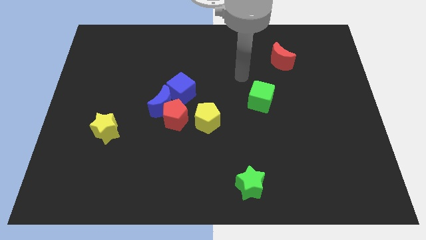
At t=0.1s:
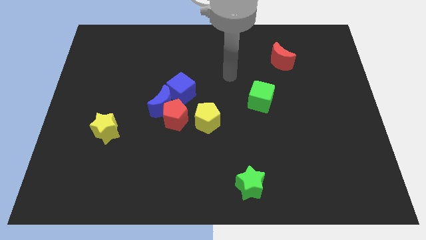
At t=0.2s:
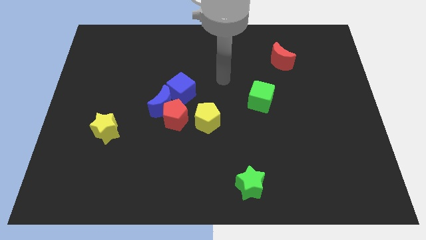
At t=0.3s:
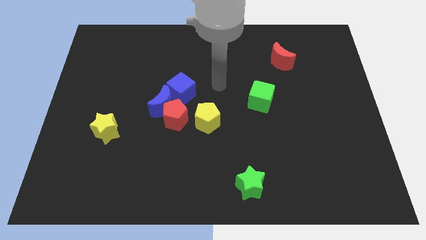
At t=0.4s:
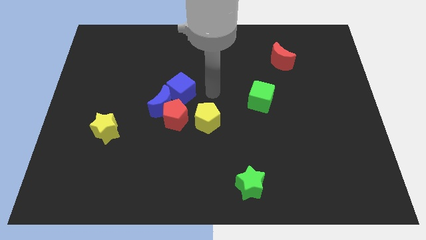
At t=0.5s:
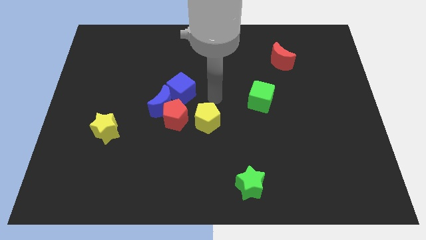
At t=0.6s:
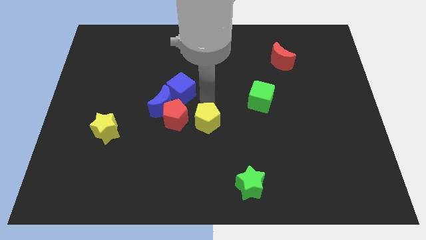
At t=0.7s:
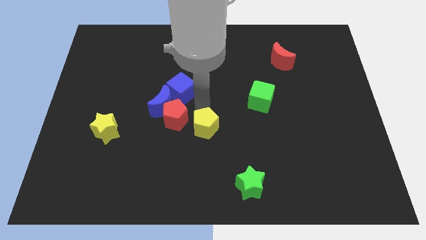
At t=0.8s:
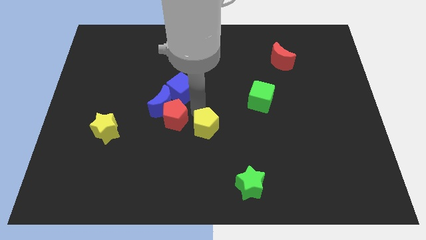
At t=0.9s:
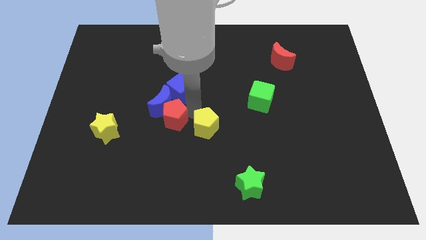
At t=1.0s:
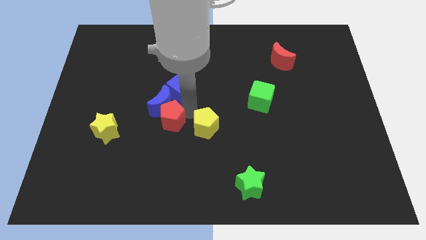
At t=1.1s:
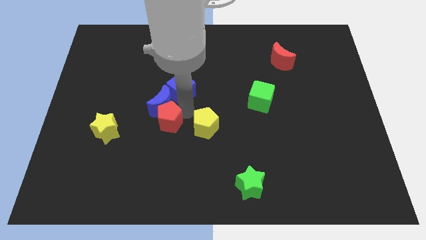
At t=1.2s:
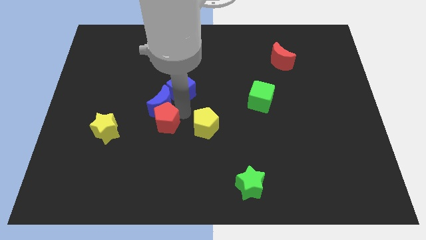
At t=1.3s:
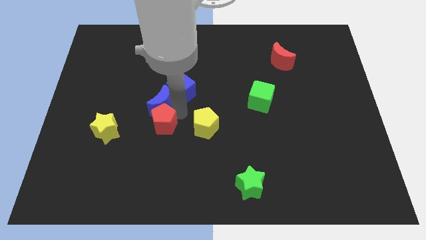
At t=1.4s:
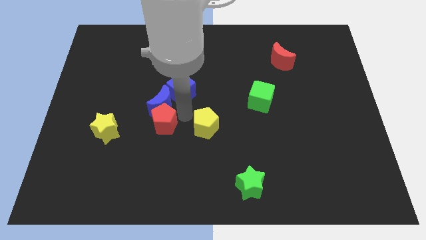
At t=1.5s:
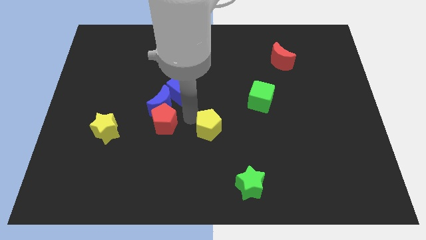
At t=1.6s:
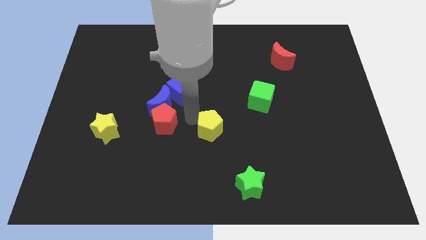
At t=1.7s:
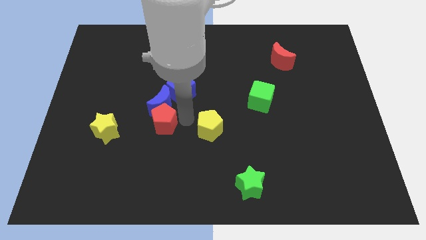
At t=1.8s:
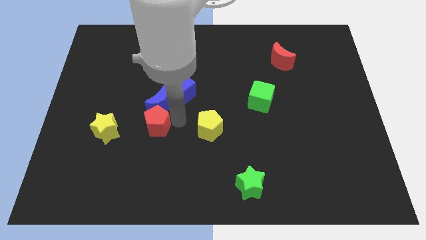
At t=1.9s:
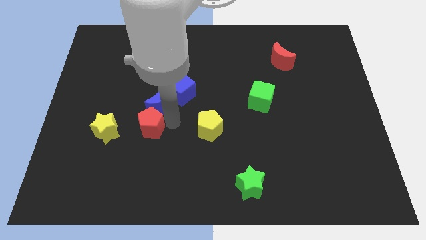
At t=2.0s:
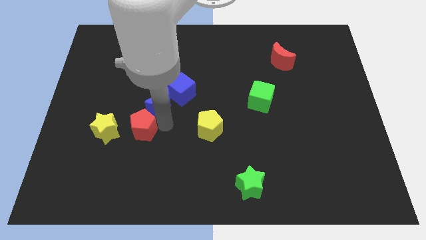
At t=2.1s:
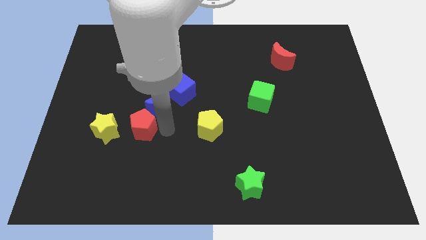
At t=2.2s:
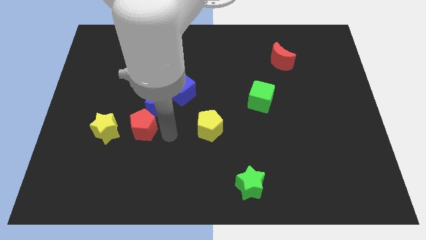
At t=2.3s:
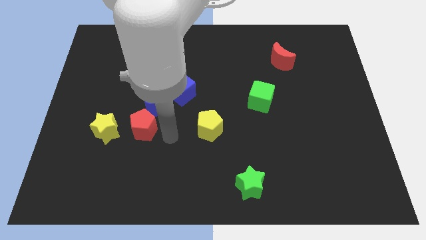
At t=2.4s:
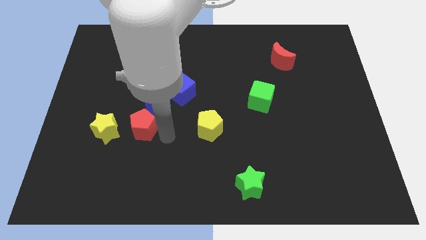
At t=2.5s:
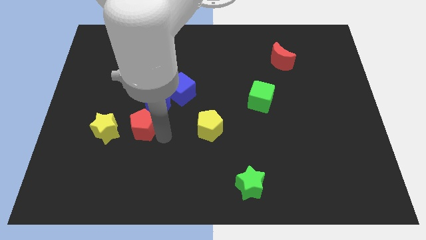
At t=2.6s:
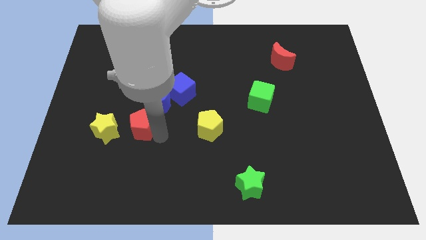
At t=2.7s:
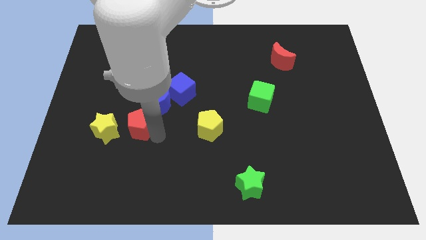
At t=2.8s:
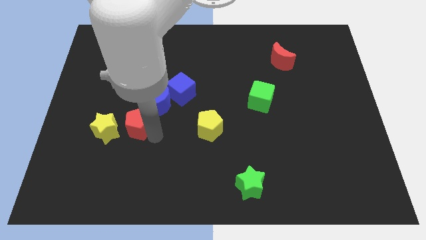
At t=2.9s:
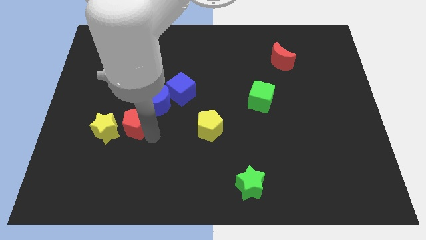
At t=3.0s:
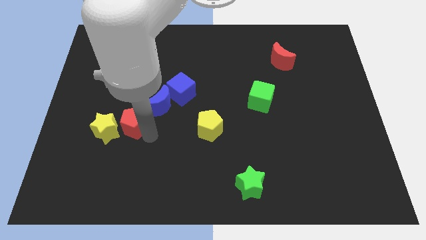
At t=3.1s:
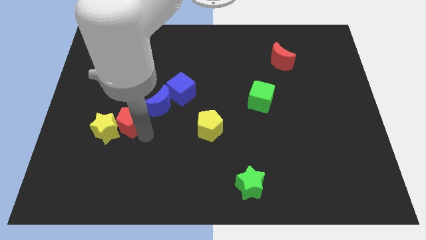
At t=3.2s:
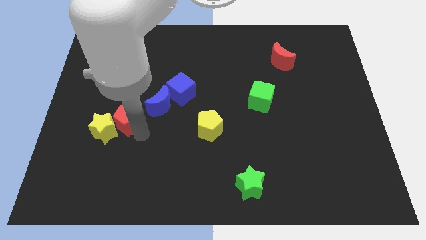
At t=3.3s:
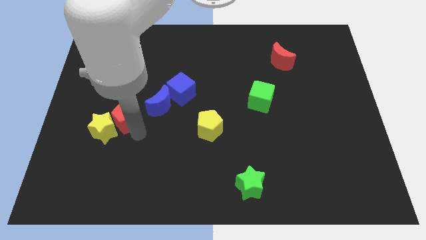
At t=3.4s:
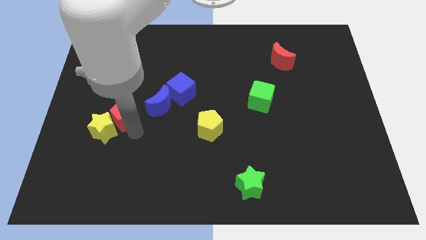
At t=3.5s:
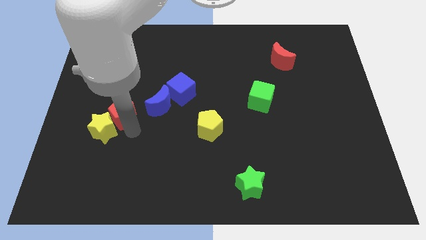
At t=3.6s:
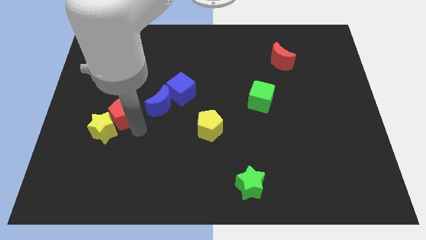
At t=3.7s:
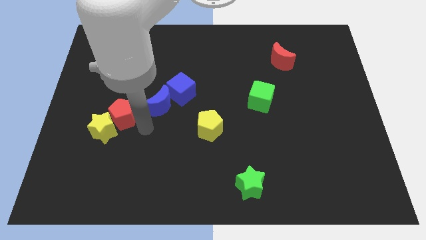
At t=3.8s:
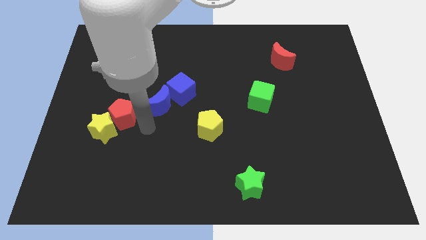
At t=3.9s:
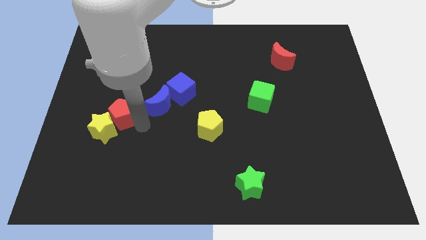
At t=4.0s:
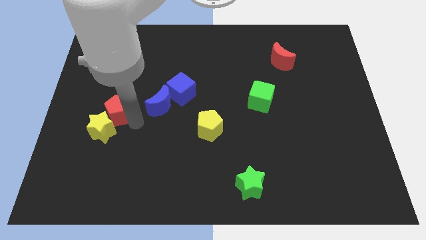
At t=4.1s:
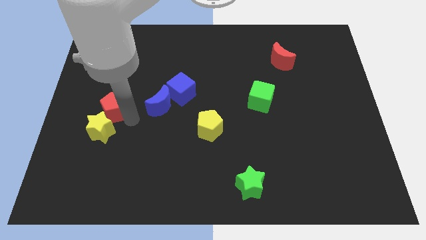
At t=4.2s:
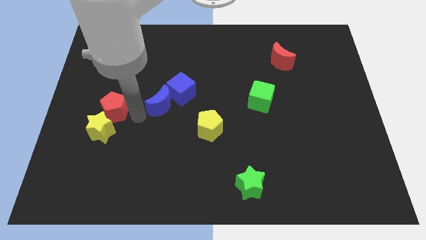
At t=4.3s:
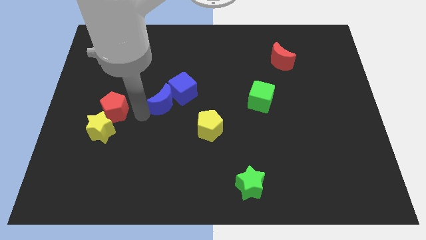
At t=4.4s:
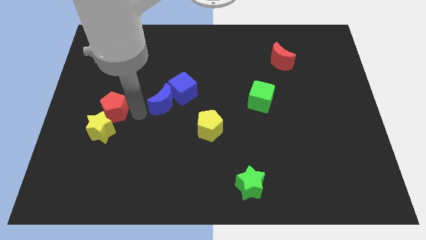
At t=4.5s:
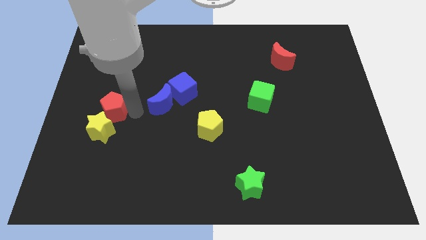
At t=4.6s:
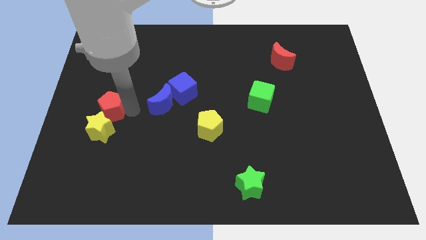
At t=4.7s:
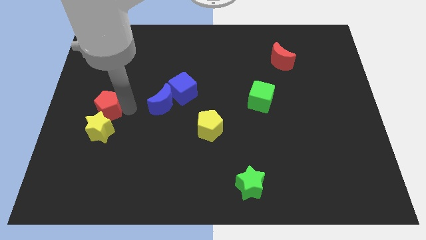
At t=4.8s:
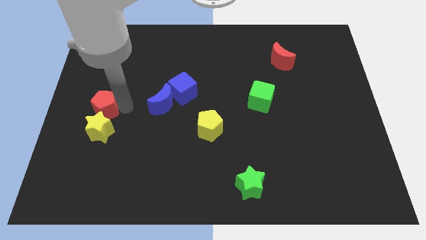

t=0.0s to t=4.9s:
put the red pentagon to the left side of the board

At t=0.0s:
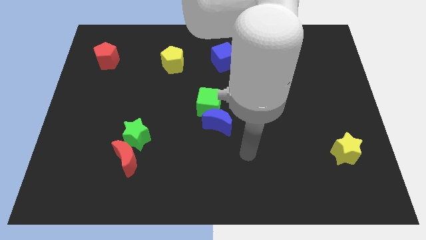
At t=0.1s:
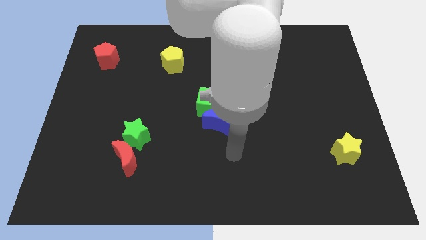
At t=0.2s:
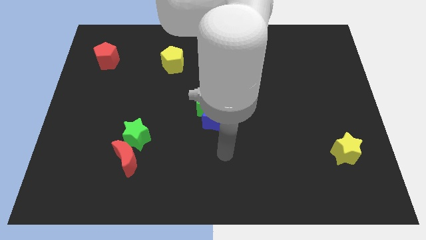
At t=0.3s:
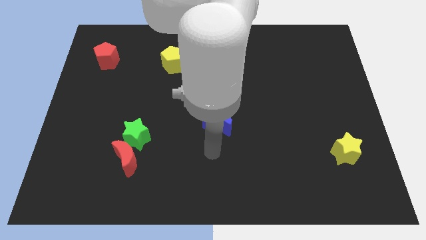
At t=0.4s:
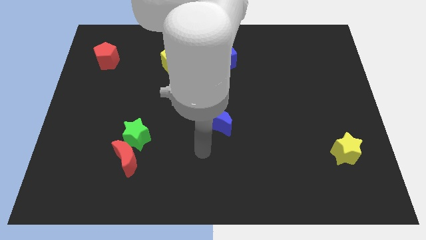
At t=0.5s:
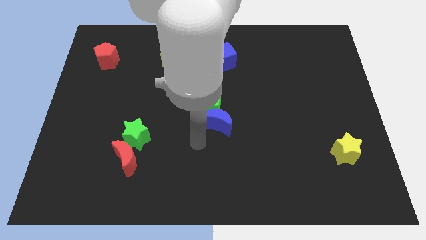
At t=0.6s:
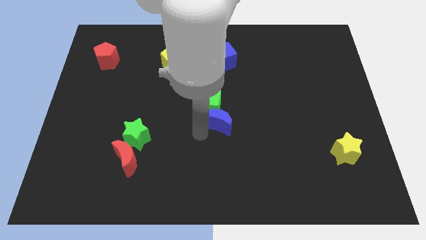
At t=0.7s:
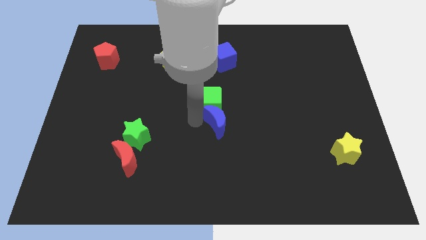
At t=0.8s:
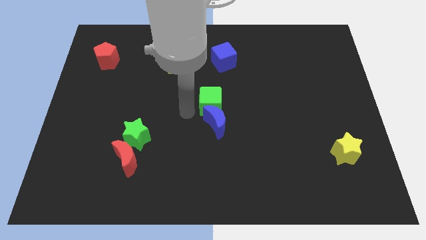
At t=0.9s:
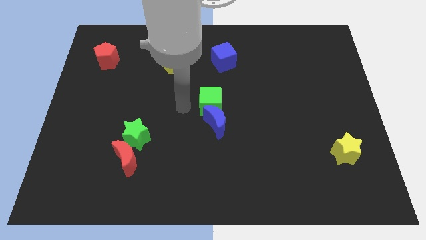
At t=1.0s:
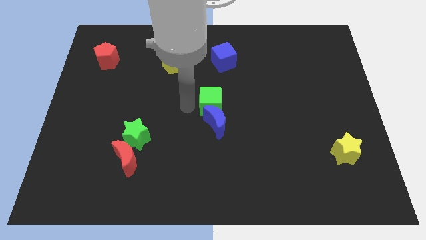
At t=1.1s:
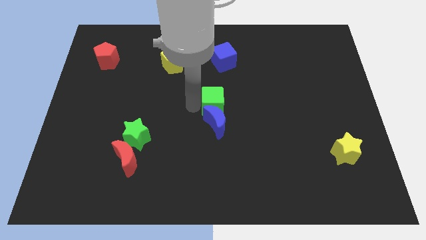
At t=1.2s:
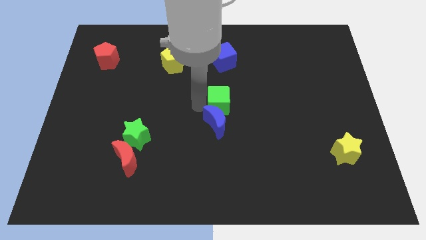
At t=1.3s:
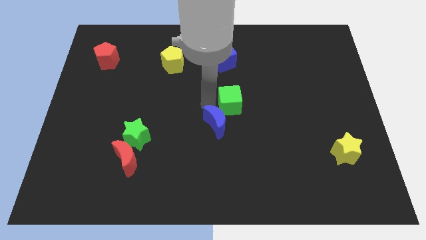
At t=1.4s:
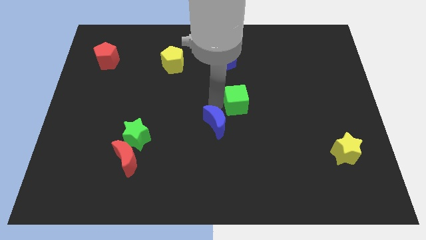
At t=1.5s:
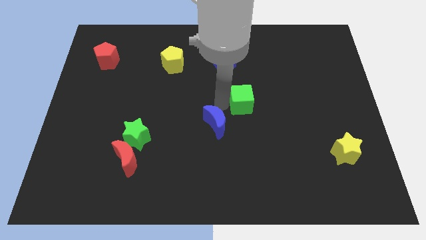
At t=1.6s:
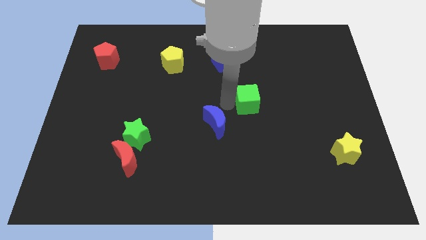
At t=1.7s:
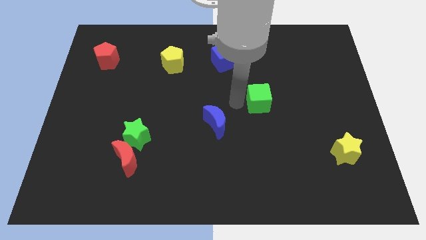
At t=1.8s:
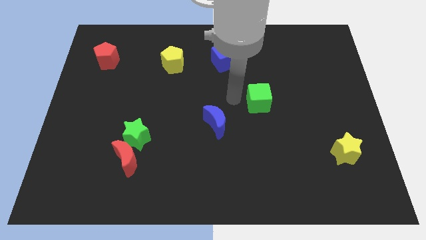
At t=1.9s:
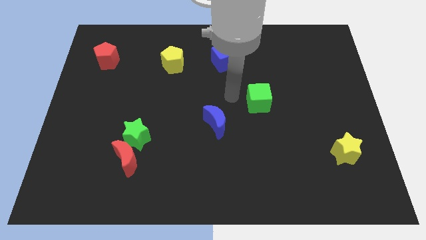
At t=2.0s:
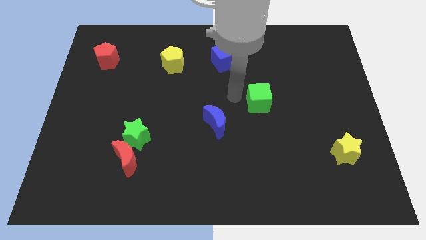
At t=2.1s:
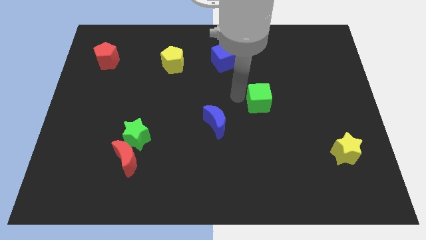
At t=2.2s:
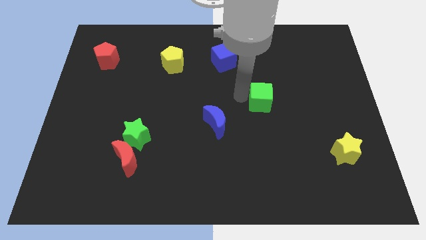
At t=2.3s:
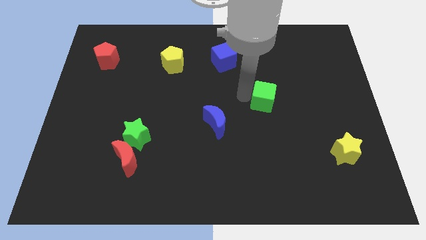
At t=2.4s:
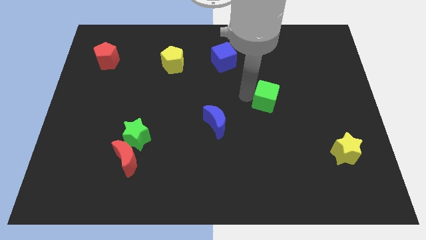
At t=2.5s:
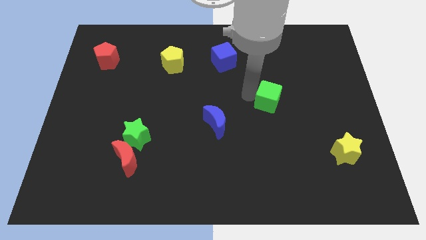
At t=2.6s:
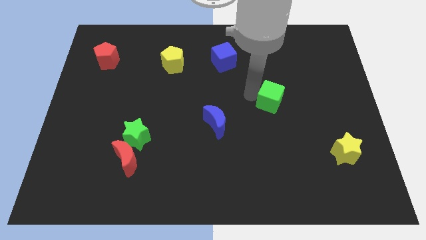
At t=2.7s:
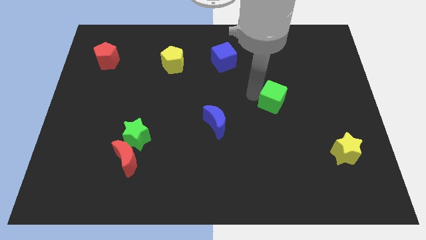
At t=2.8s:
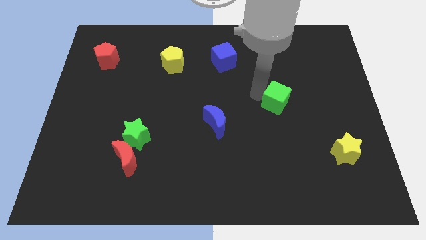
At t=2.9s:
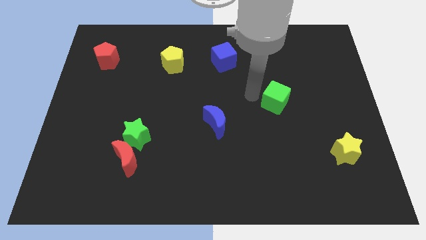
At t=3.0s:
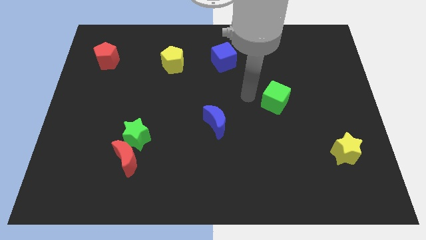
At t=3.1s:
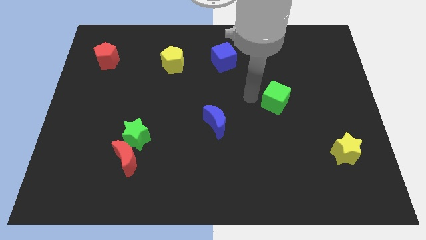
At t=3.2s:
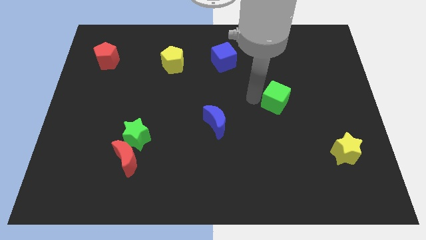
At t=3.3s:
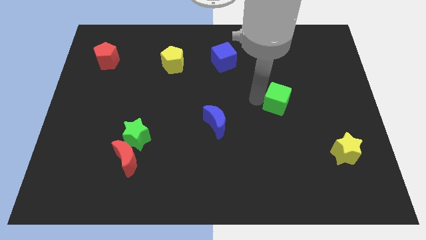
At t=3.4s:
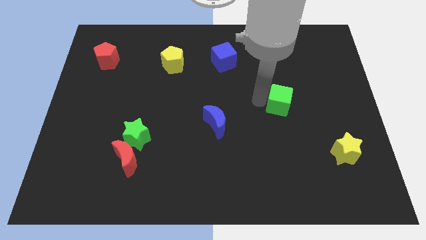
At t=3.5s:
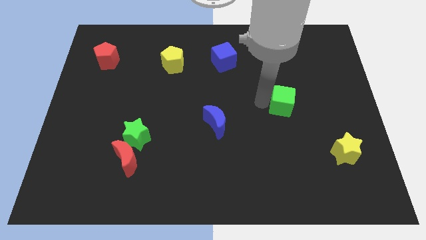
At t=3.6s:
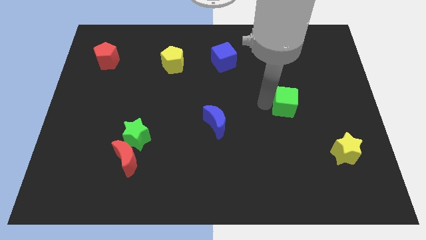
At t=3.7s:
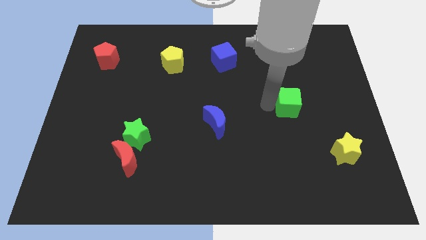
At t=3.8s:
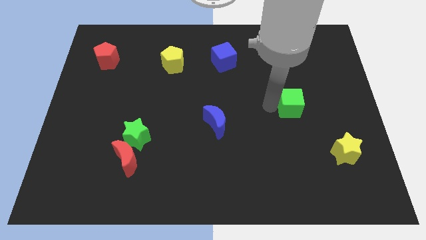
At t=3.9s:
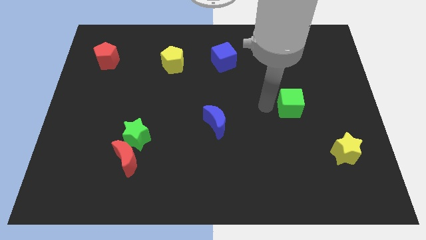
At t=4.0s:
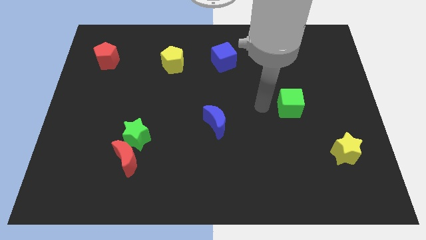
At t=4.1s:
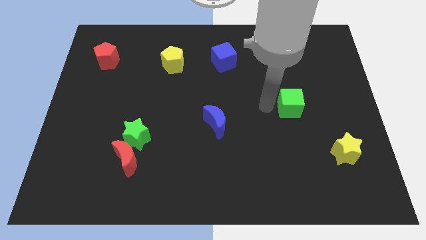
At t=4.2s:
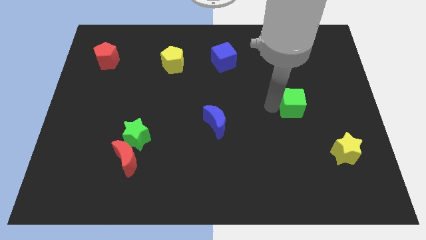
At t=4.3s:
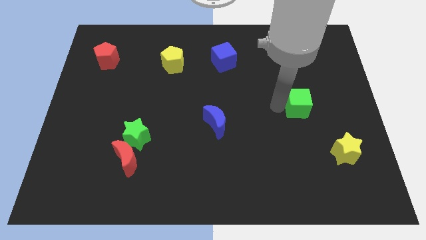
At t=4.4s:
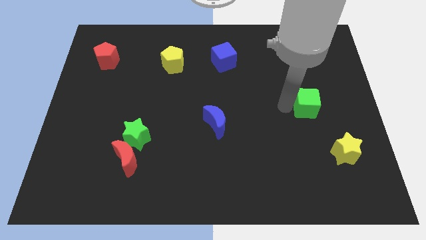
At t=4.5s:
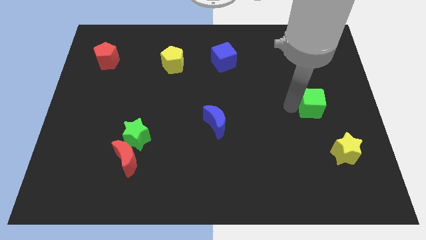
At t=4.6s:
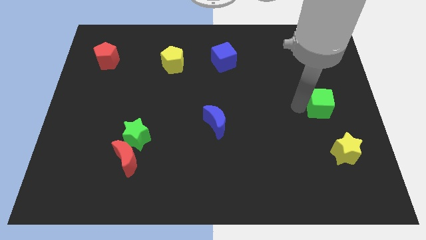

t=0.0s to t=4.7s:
slide the green cube to the right side of the board
